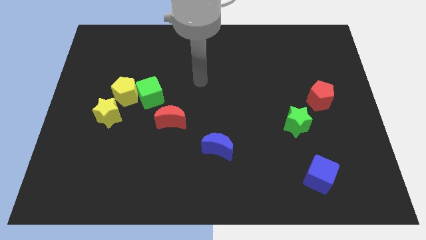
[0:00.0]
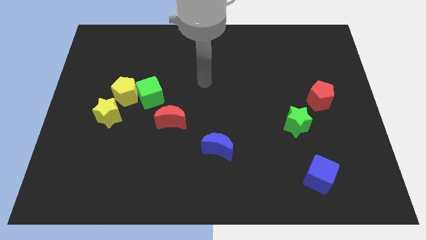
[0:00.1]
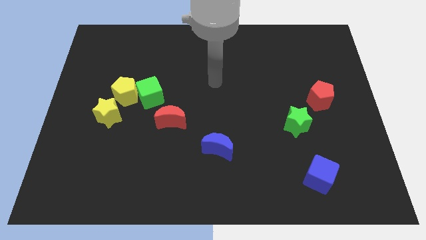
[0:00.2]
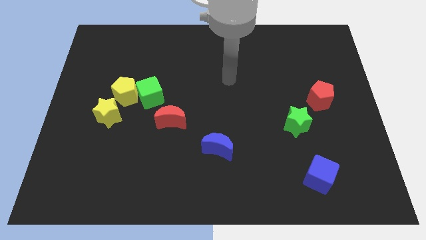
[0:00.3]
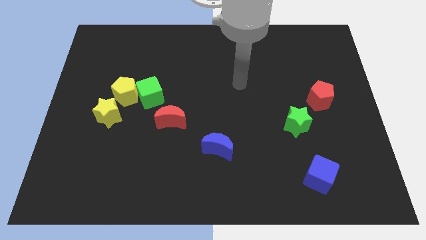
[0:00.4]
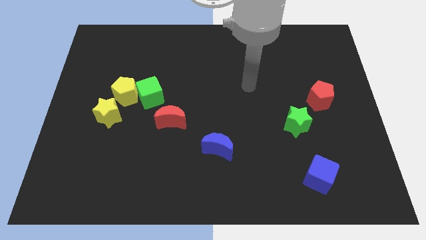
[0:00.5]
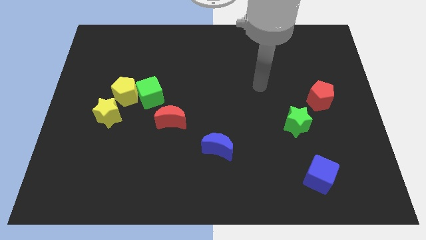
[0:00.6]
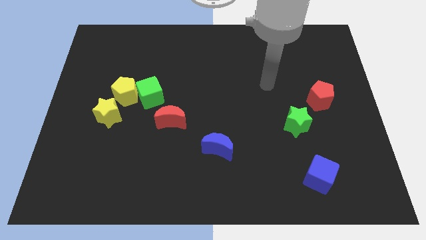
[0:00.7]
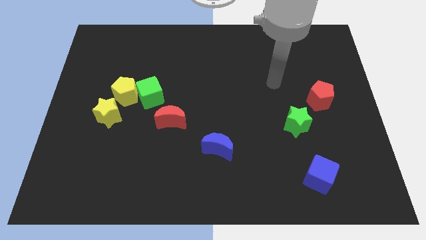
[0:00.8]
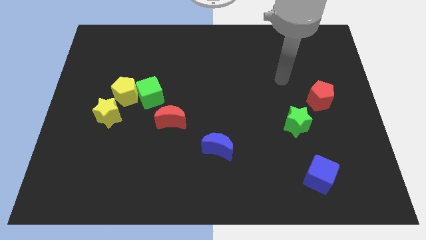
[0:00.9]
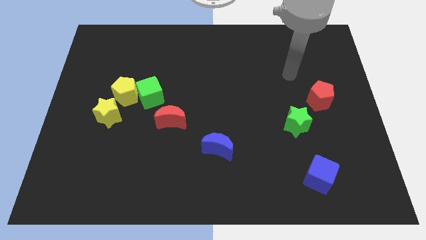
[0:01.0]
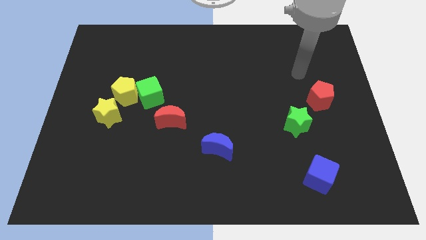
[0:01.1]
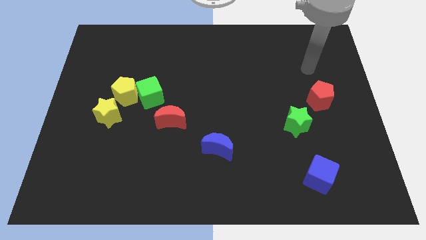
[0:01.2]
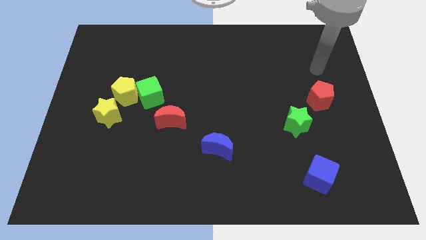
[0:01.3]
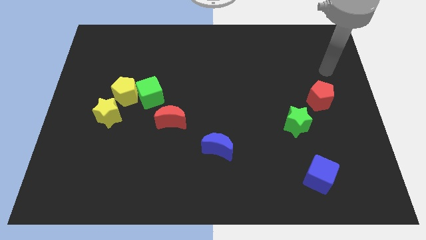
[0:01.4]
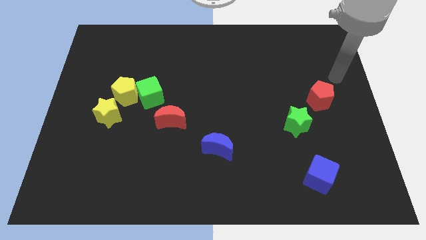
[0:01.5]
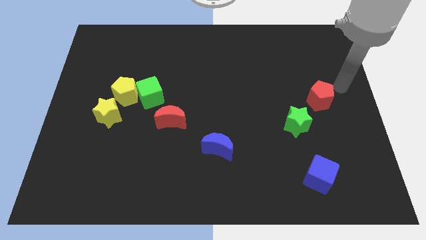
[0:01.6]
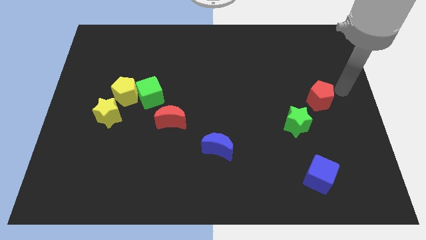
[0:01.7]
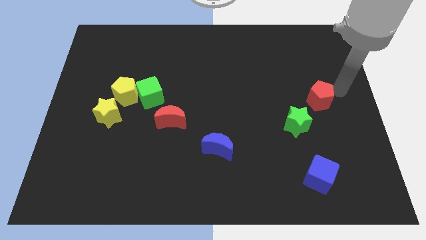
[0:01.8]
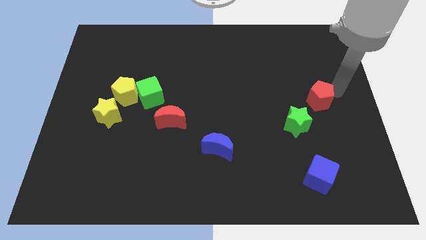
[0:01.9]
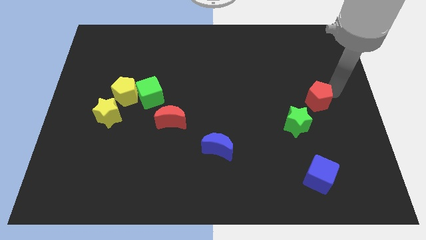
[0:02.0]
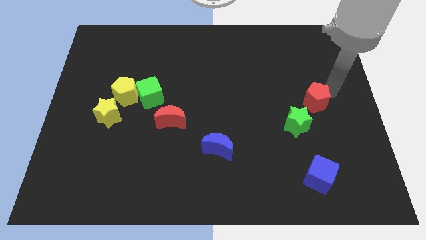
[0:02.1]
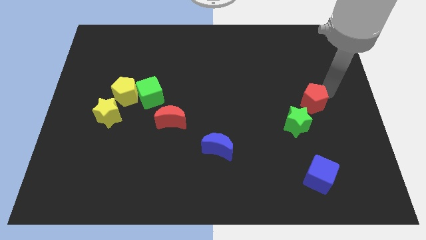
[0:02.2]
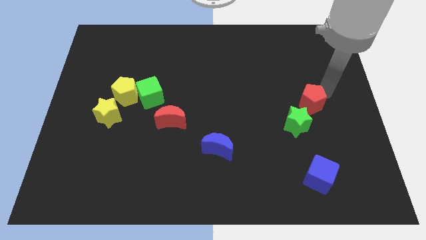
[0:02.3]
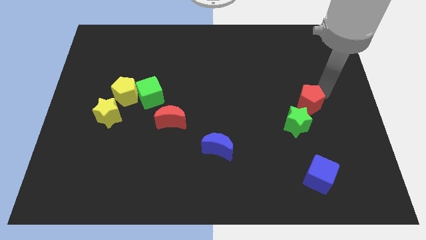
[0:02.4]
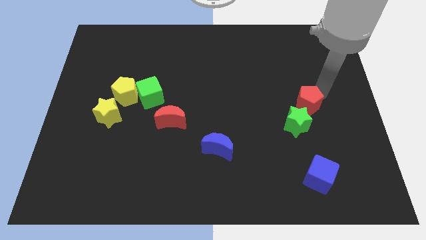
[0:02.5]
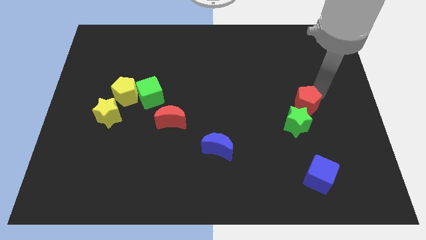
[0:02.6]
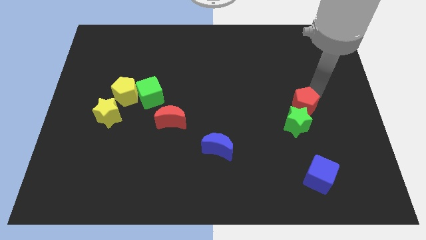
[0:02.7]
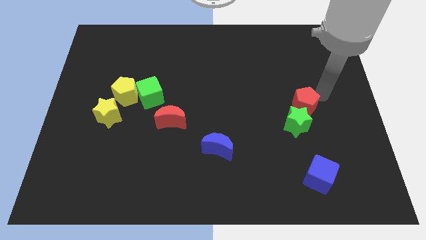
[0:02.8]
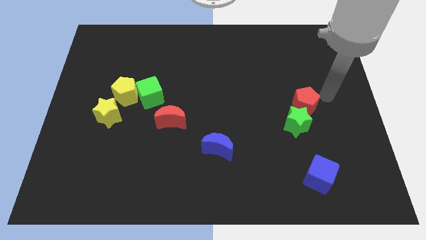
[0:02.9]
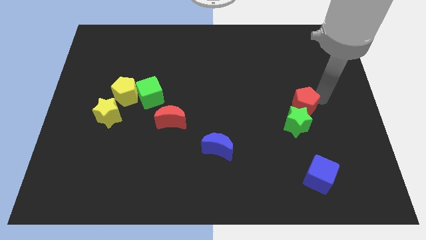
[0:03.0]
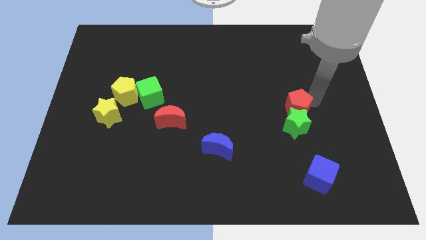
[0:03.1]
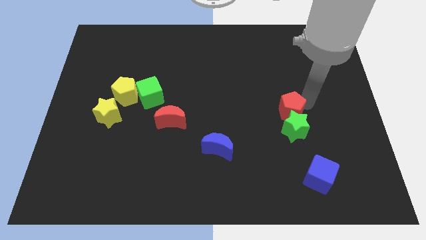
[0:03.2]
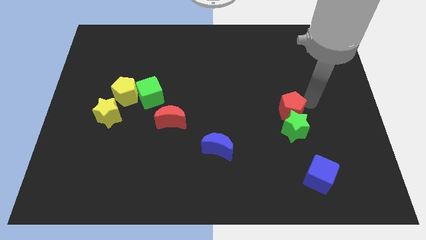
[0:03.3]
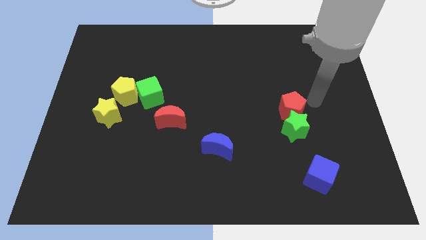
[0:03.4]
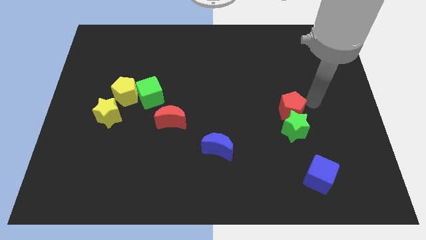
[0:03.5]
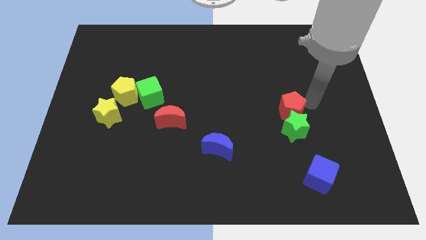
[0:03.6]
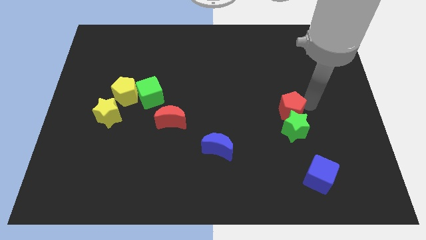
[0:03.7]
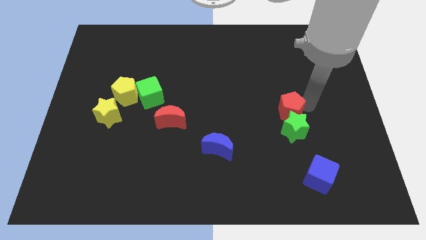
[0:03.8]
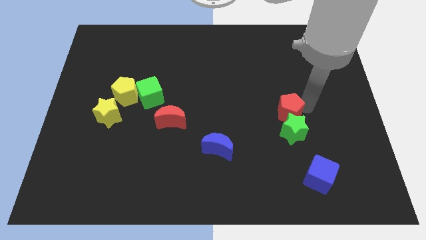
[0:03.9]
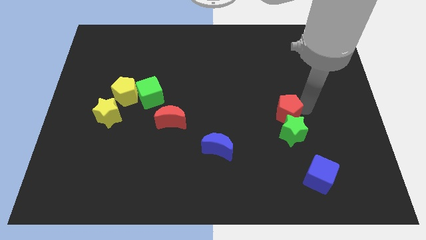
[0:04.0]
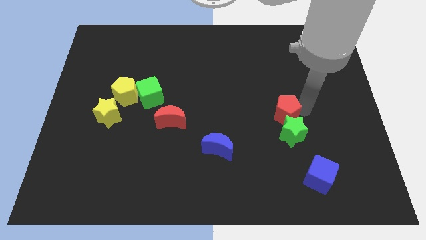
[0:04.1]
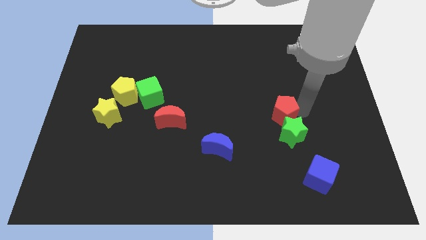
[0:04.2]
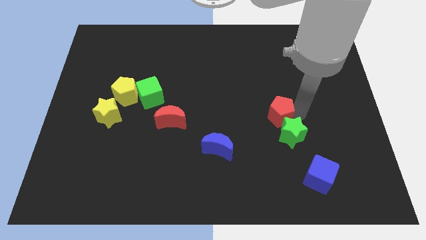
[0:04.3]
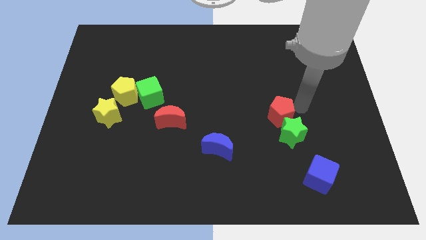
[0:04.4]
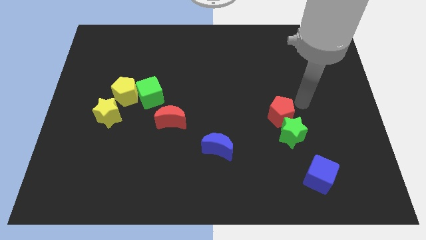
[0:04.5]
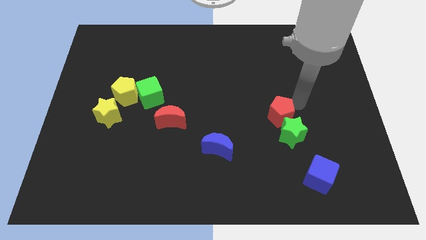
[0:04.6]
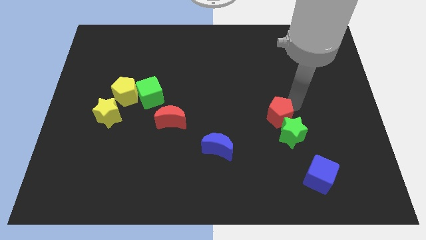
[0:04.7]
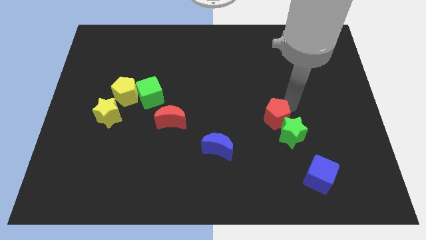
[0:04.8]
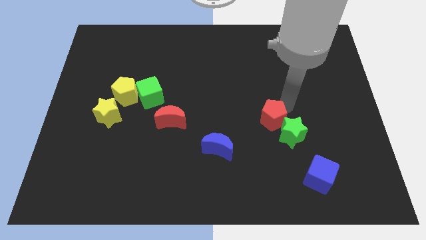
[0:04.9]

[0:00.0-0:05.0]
move the red pentagon to the left side of the green star

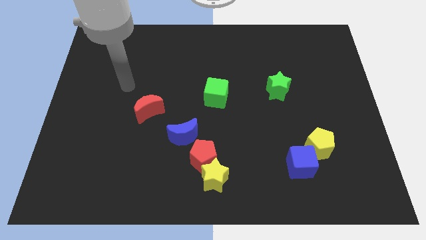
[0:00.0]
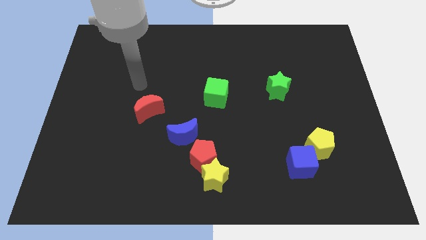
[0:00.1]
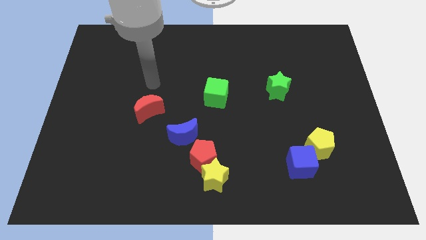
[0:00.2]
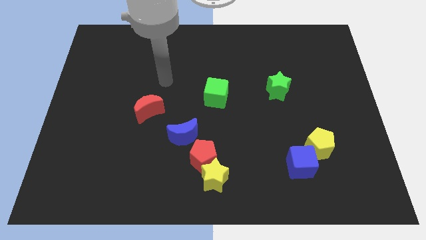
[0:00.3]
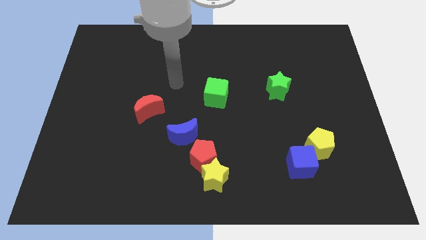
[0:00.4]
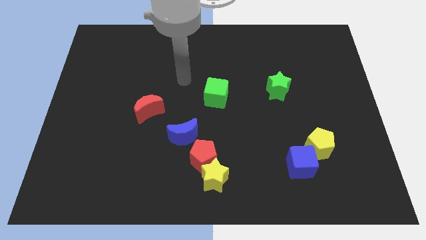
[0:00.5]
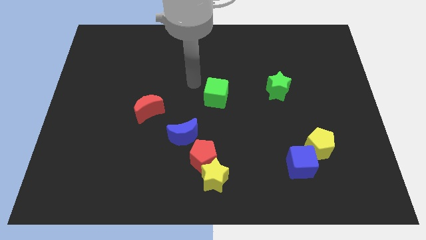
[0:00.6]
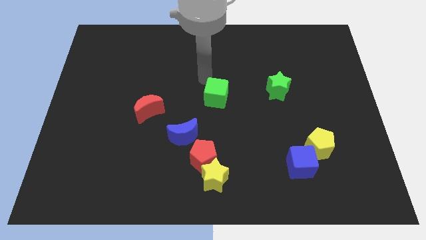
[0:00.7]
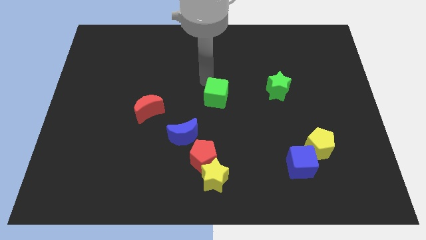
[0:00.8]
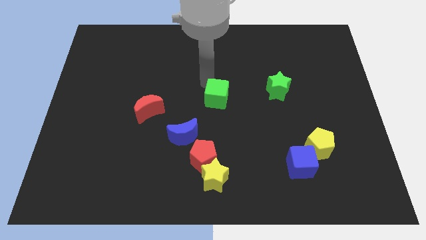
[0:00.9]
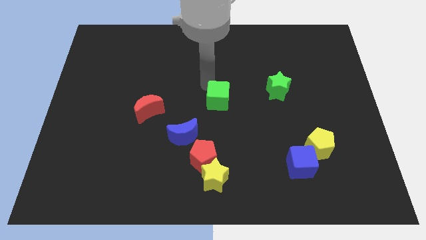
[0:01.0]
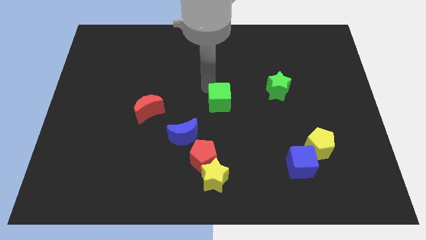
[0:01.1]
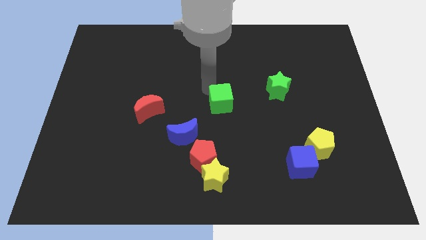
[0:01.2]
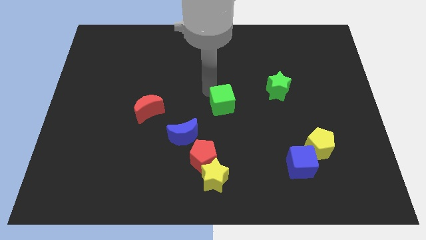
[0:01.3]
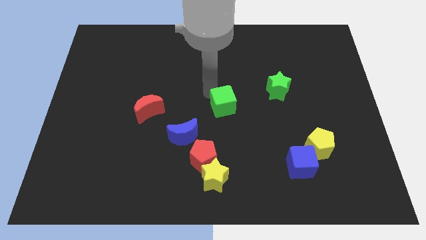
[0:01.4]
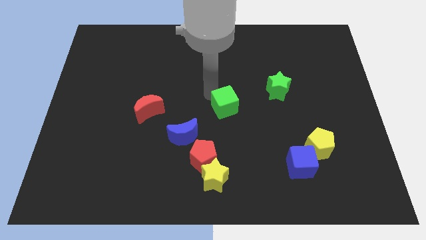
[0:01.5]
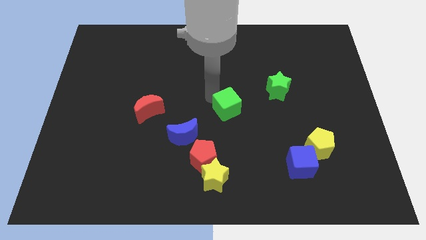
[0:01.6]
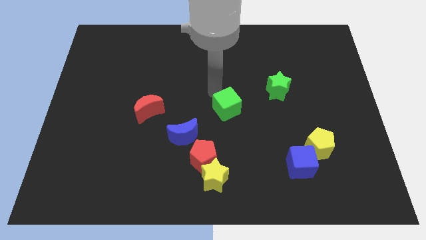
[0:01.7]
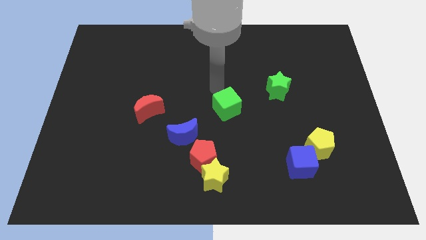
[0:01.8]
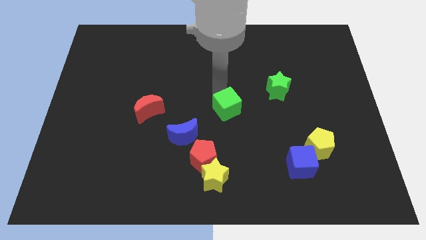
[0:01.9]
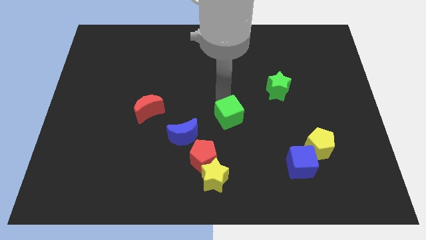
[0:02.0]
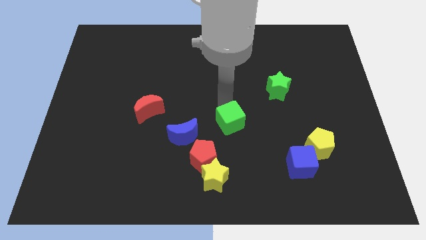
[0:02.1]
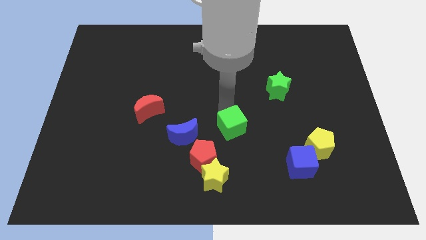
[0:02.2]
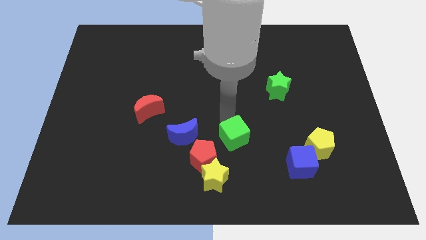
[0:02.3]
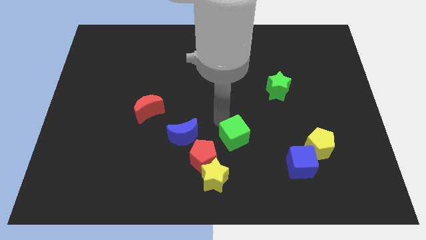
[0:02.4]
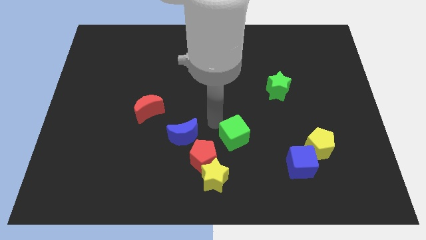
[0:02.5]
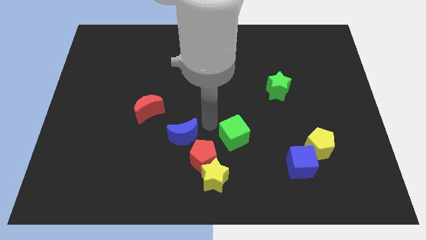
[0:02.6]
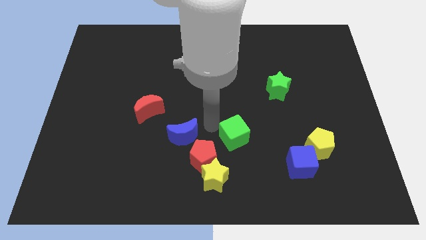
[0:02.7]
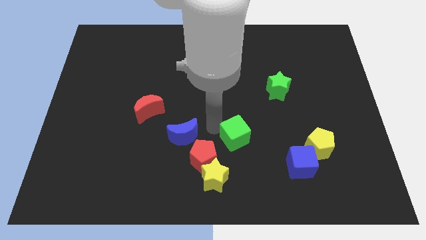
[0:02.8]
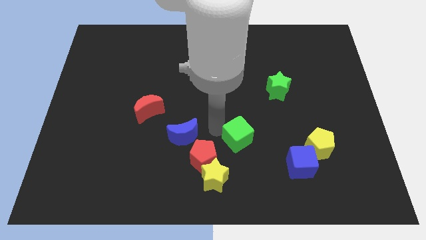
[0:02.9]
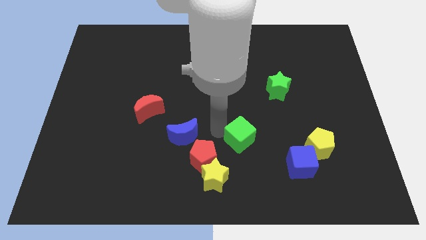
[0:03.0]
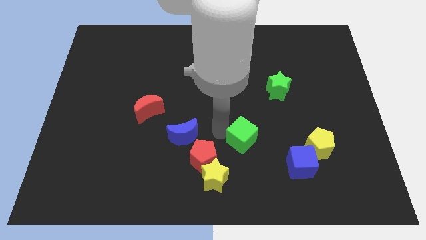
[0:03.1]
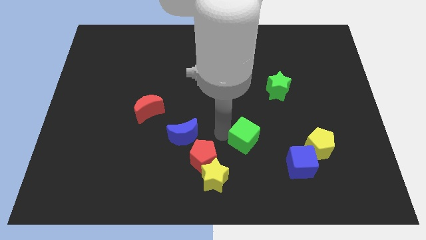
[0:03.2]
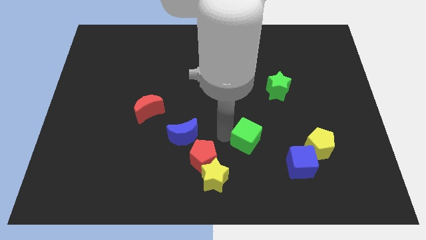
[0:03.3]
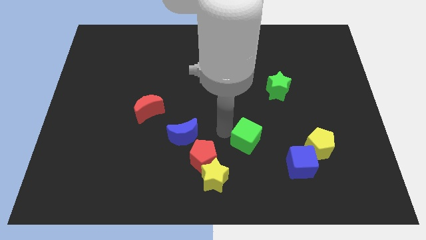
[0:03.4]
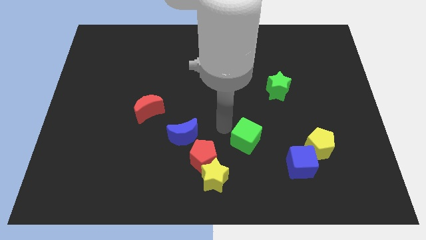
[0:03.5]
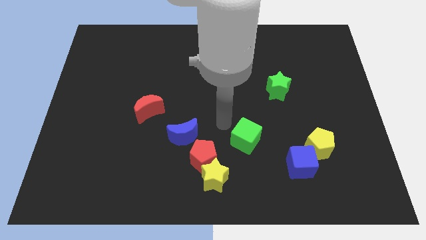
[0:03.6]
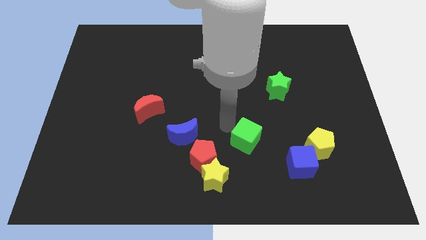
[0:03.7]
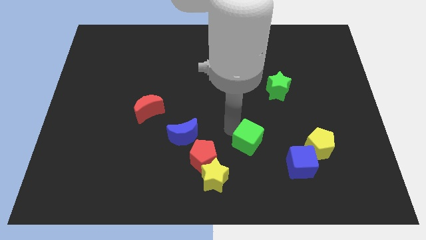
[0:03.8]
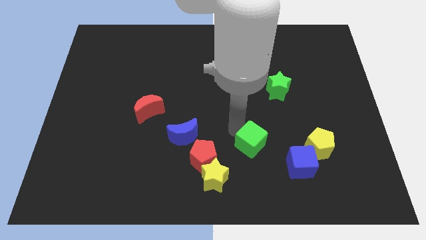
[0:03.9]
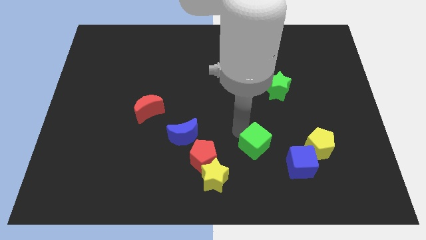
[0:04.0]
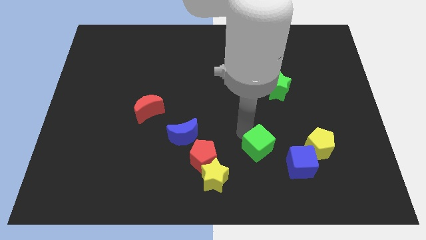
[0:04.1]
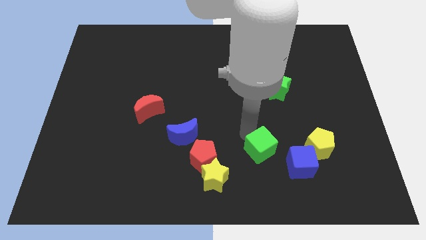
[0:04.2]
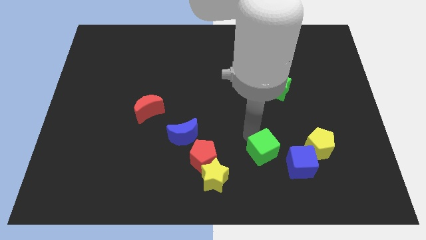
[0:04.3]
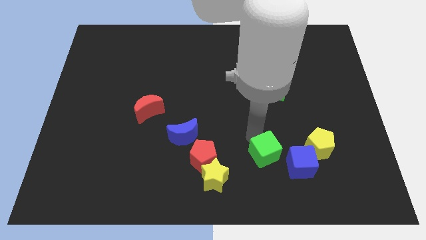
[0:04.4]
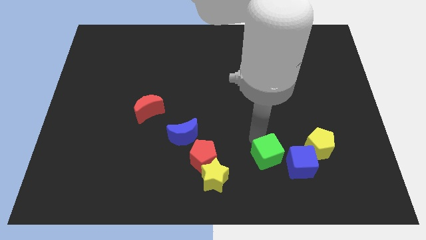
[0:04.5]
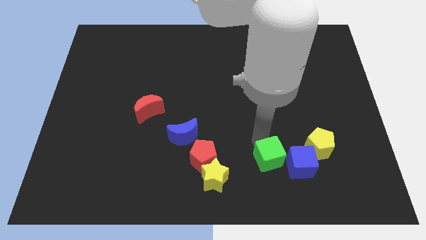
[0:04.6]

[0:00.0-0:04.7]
put the green cube right of the yellow star
